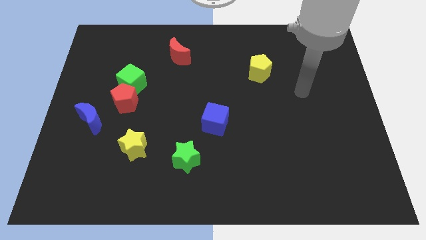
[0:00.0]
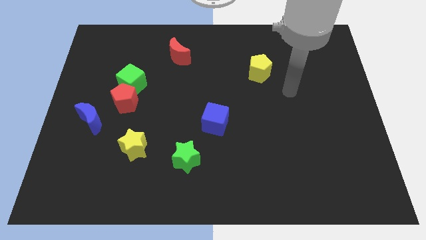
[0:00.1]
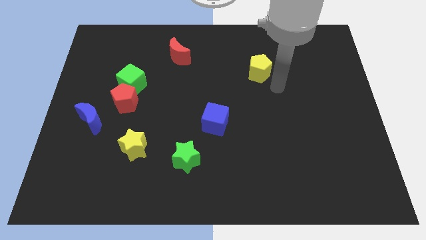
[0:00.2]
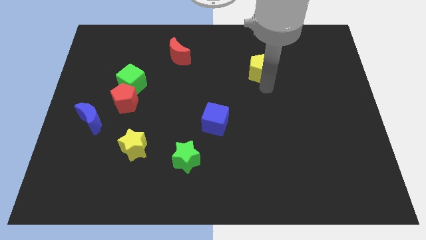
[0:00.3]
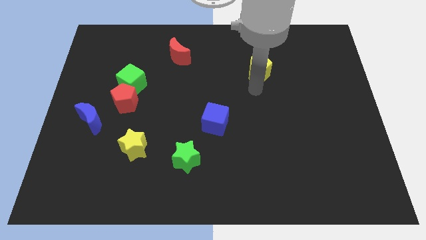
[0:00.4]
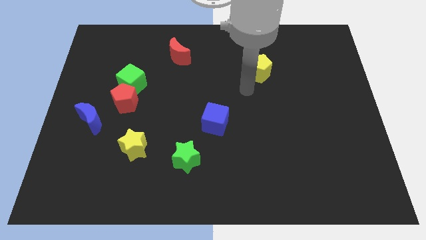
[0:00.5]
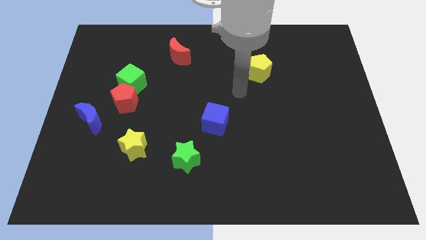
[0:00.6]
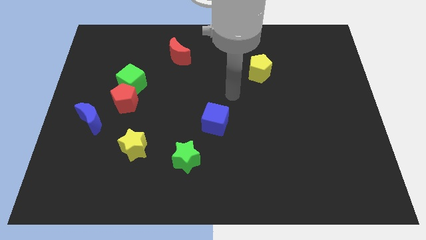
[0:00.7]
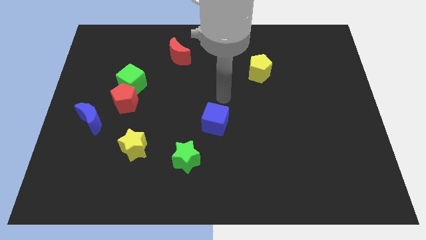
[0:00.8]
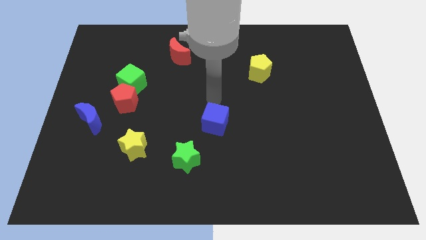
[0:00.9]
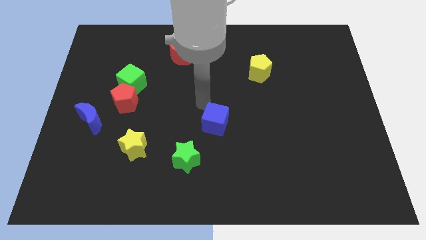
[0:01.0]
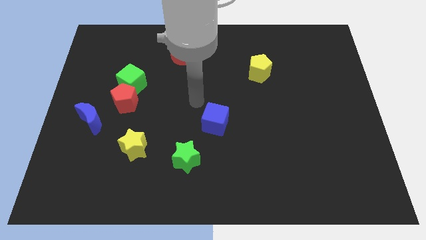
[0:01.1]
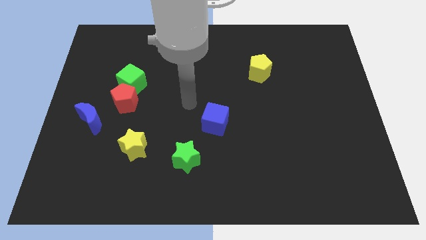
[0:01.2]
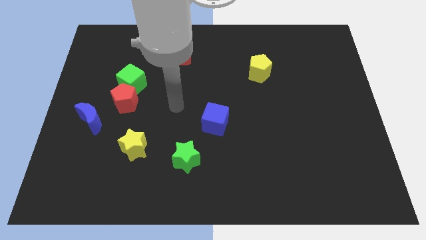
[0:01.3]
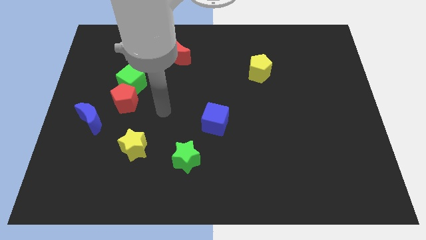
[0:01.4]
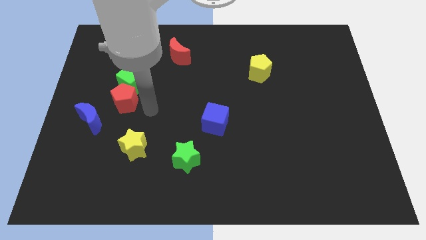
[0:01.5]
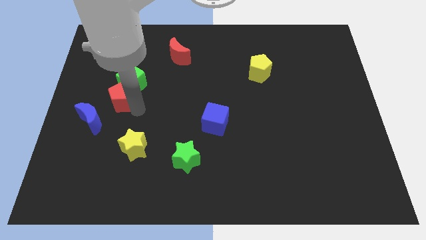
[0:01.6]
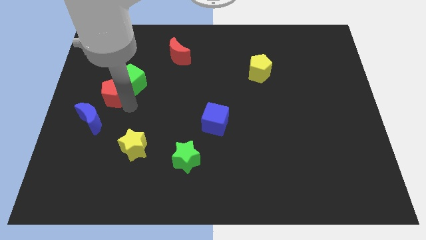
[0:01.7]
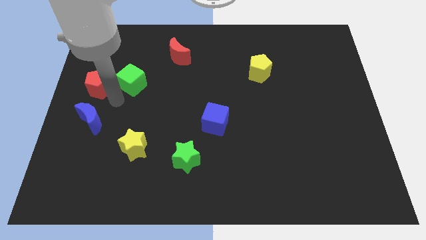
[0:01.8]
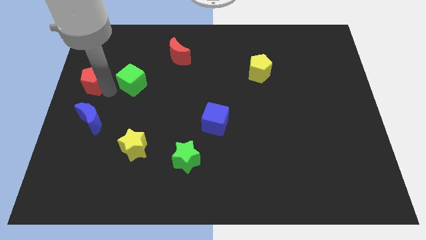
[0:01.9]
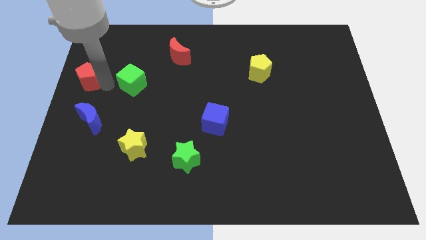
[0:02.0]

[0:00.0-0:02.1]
move the green cube away from the red pentagon

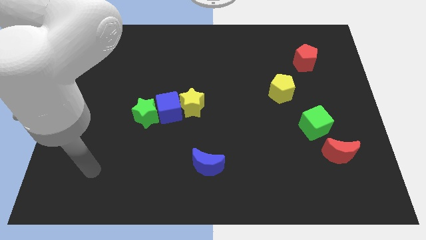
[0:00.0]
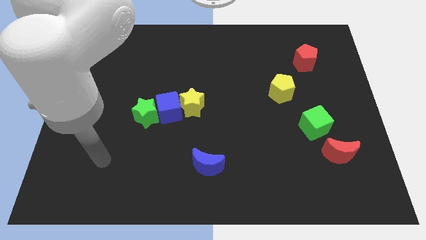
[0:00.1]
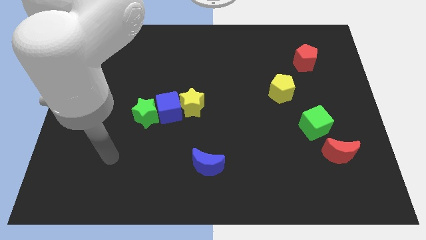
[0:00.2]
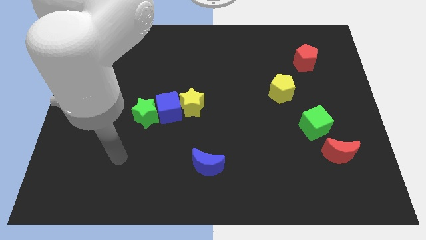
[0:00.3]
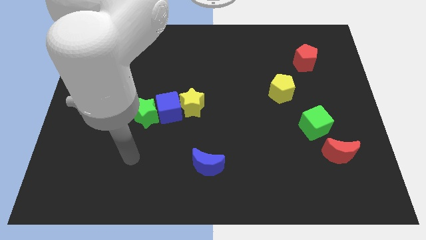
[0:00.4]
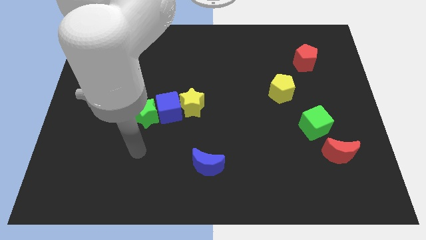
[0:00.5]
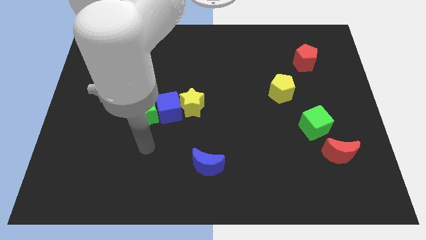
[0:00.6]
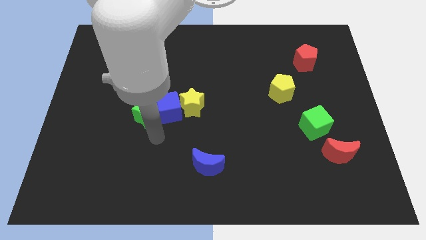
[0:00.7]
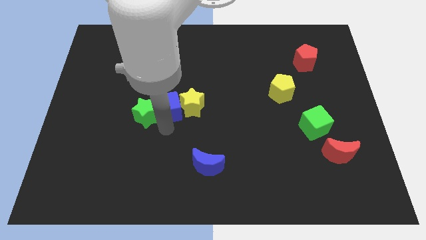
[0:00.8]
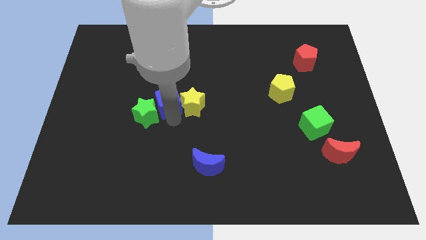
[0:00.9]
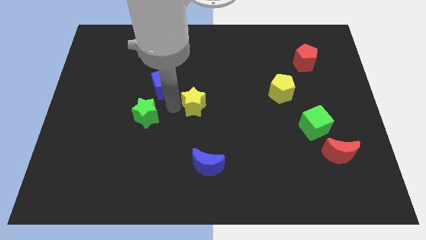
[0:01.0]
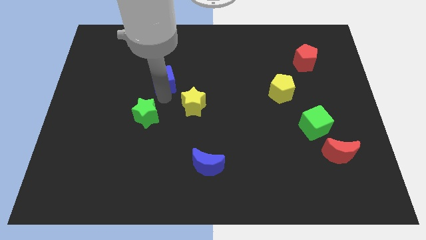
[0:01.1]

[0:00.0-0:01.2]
pull the green star apart from the blue cube

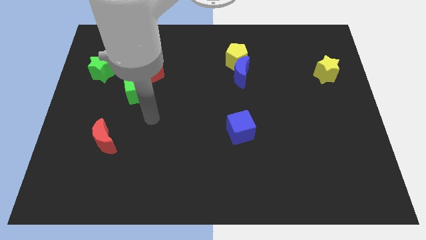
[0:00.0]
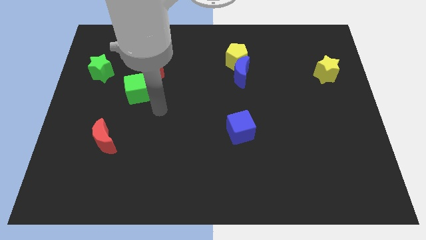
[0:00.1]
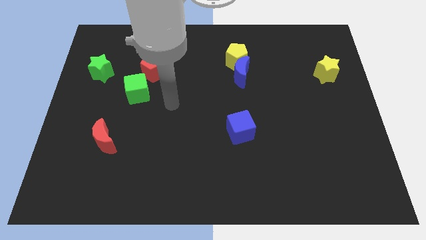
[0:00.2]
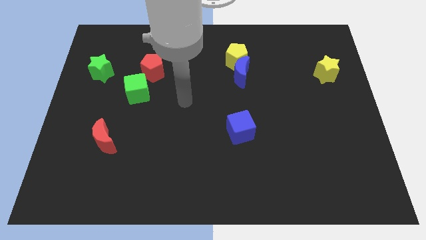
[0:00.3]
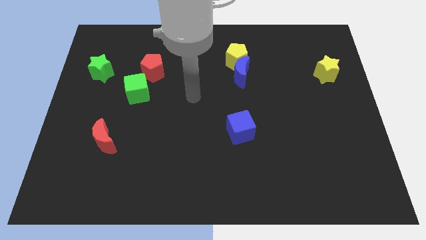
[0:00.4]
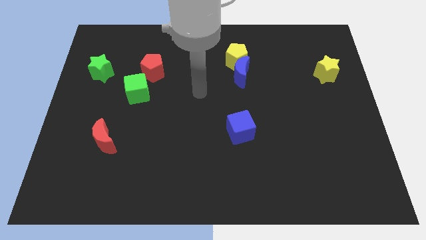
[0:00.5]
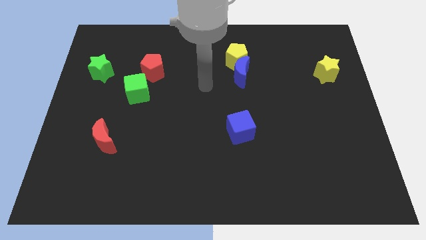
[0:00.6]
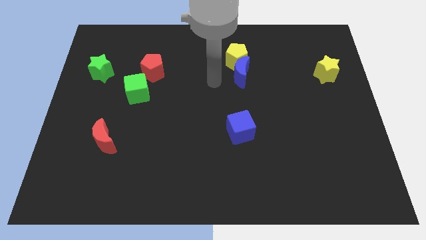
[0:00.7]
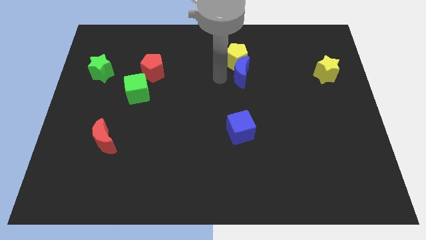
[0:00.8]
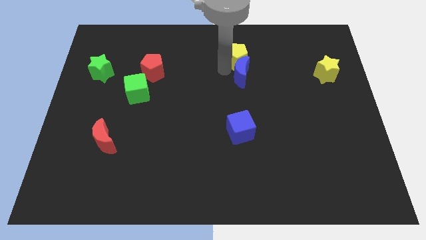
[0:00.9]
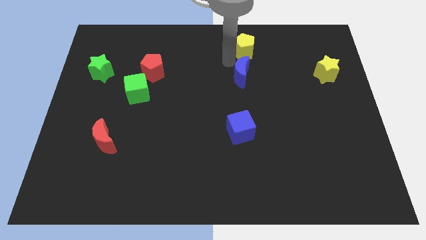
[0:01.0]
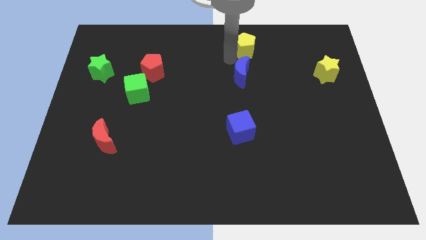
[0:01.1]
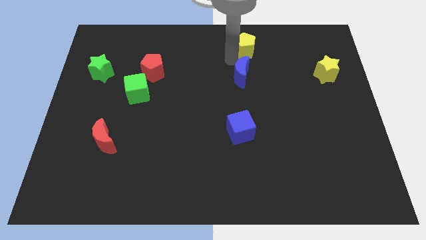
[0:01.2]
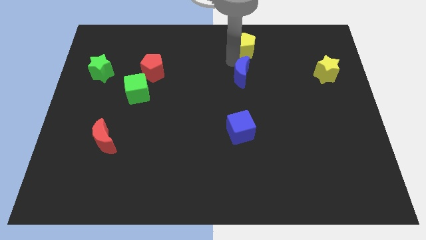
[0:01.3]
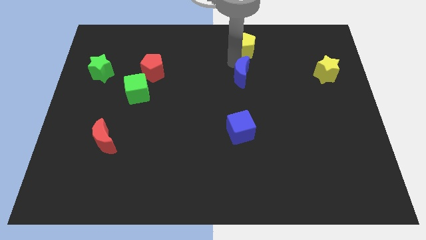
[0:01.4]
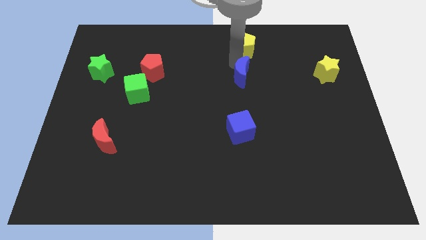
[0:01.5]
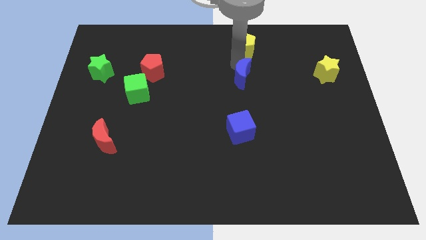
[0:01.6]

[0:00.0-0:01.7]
move the blue moon away from the yellow pentagon

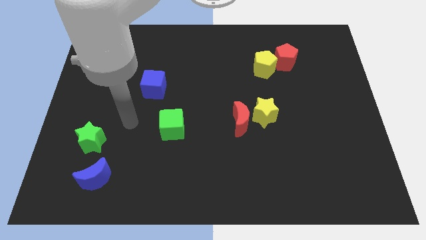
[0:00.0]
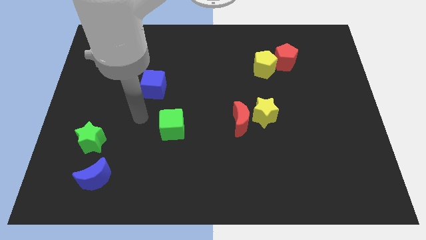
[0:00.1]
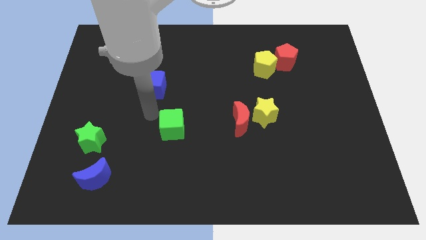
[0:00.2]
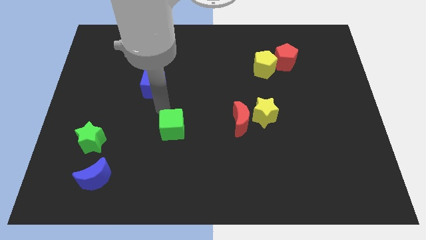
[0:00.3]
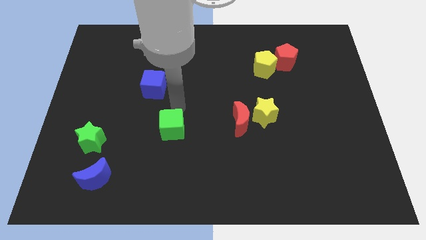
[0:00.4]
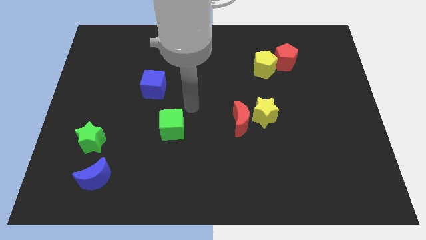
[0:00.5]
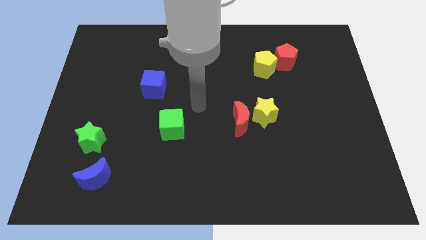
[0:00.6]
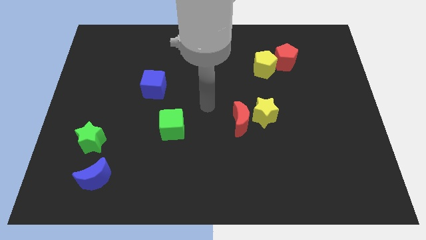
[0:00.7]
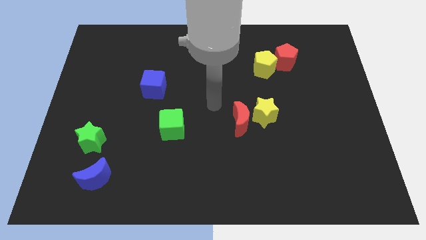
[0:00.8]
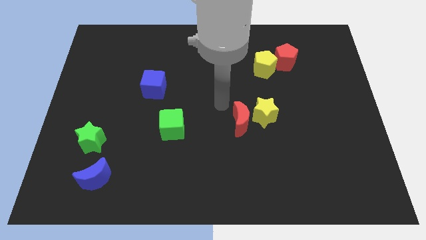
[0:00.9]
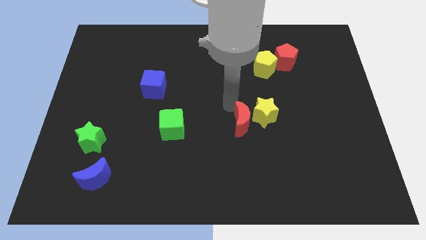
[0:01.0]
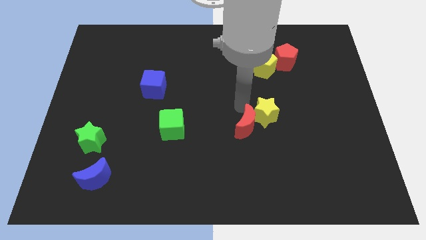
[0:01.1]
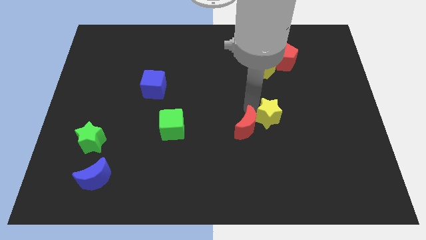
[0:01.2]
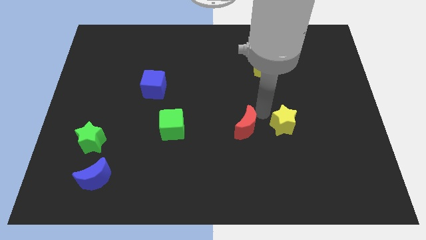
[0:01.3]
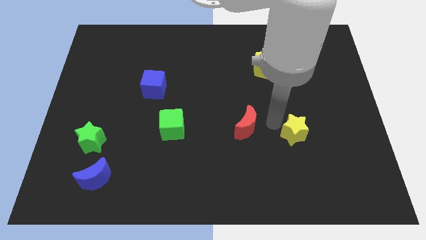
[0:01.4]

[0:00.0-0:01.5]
move the red moon away from the yellow star

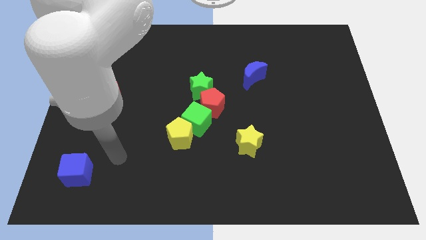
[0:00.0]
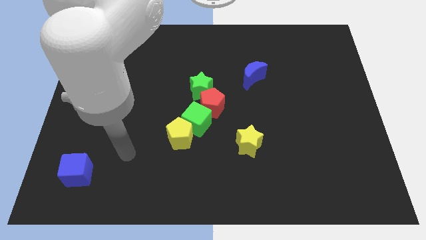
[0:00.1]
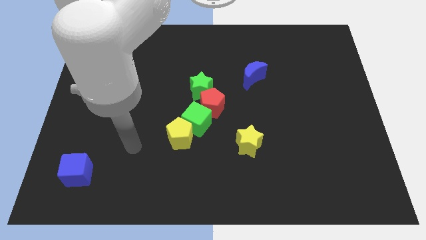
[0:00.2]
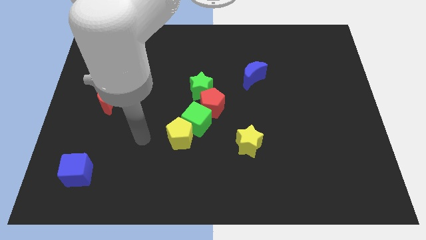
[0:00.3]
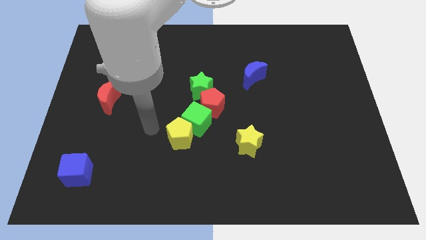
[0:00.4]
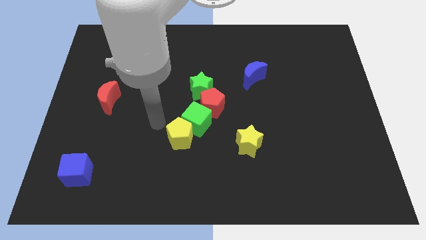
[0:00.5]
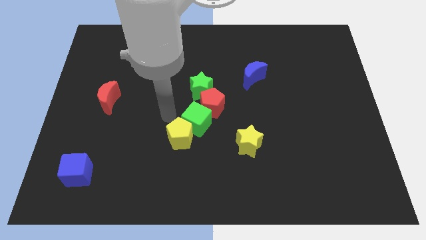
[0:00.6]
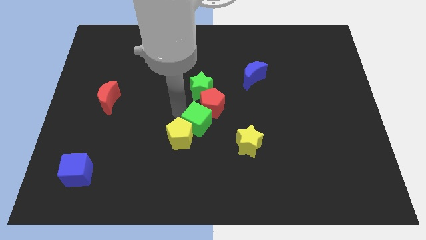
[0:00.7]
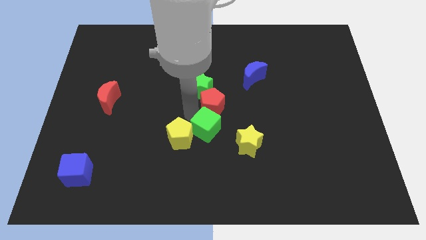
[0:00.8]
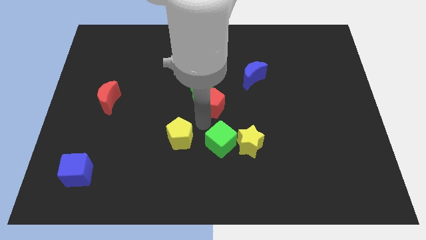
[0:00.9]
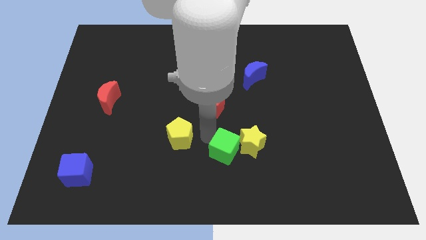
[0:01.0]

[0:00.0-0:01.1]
pull the yellow pentagon apart from the green cube

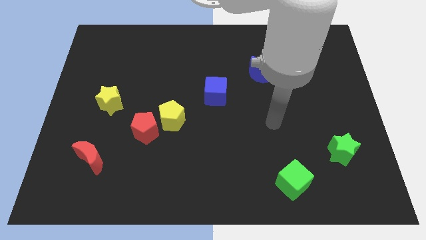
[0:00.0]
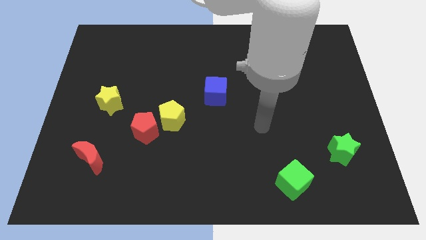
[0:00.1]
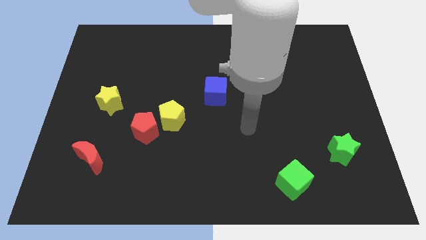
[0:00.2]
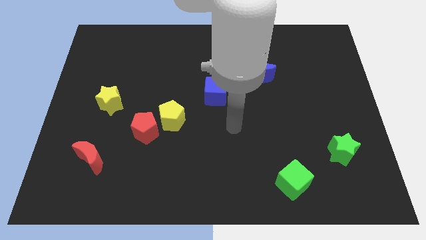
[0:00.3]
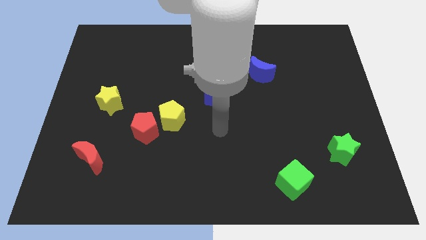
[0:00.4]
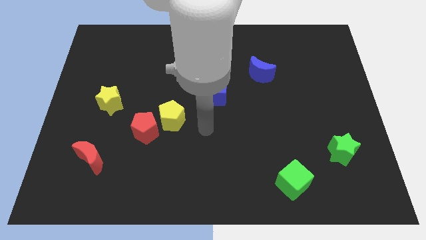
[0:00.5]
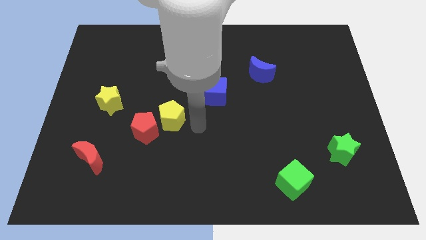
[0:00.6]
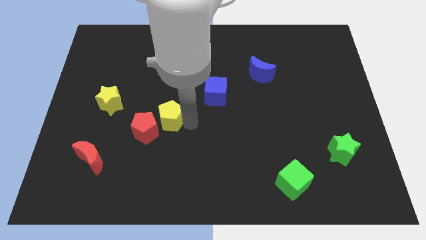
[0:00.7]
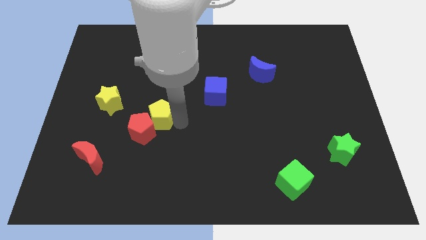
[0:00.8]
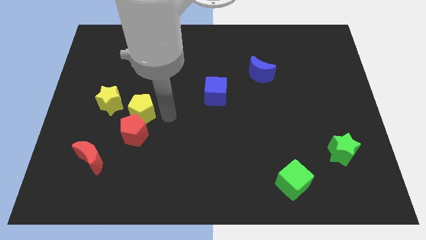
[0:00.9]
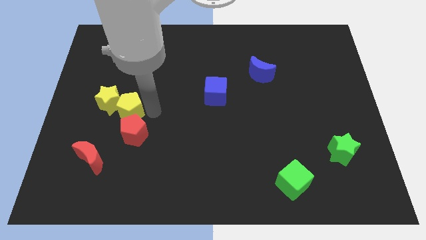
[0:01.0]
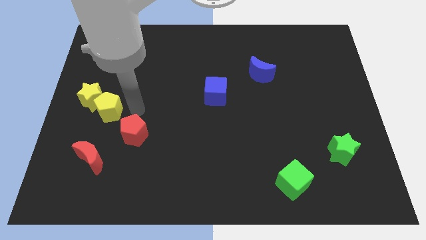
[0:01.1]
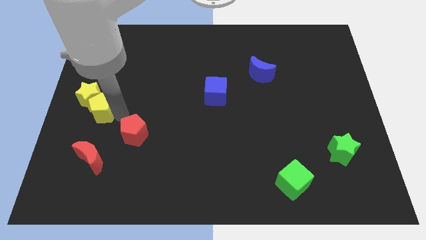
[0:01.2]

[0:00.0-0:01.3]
move the red pentagon away from the yellow pentagon

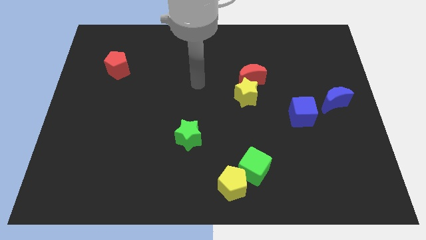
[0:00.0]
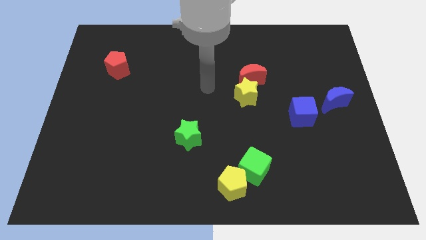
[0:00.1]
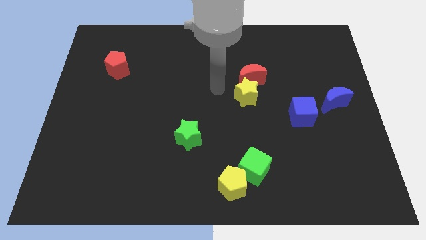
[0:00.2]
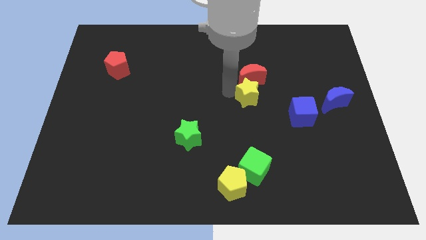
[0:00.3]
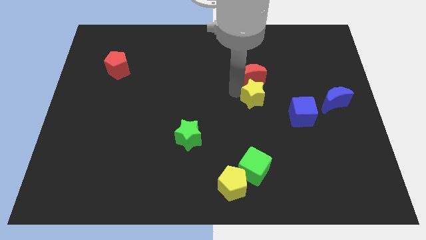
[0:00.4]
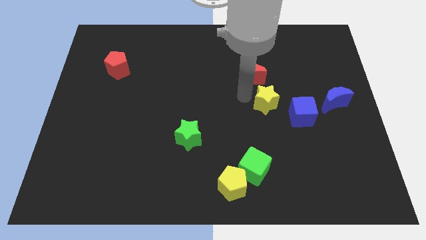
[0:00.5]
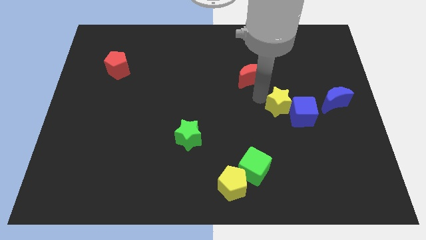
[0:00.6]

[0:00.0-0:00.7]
separate the red moon from the yellow star
